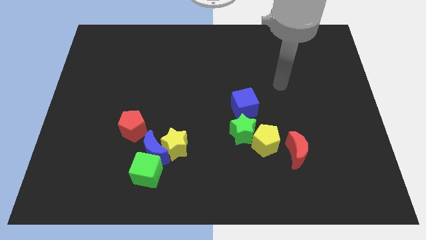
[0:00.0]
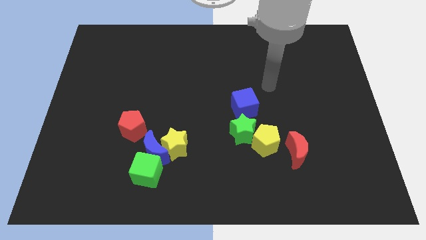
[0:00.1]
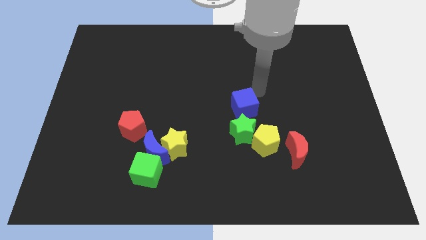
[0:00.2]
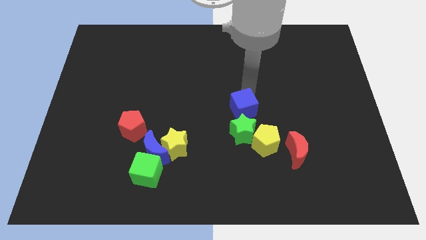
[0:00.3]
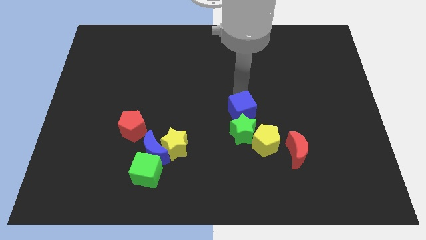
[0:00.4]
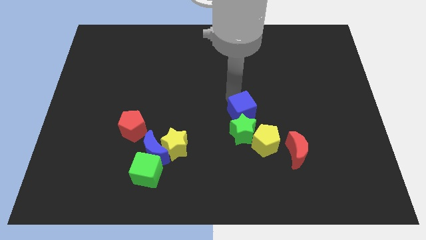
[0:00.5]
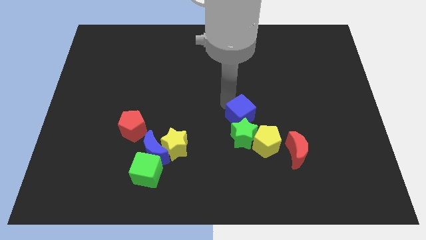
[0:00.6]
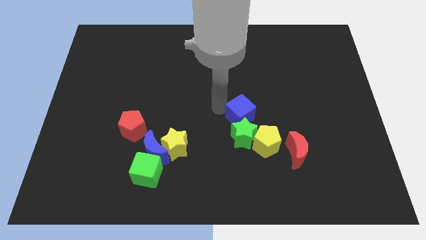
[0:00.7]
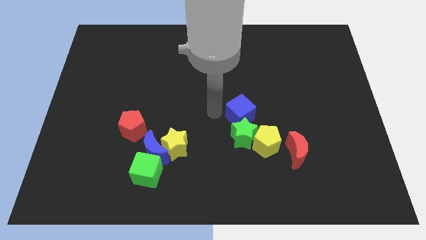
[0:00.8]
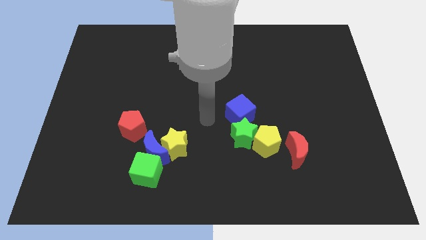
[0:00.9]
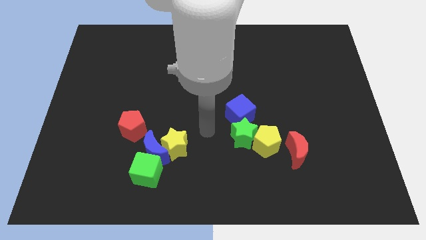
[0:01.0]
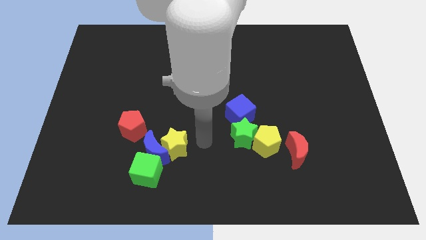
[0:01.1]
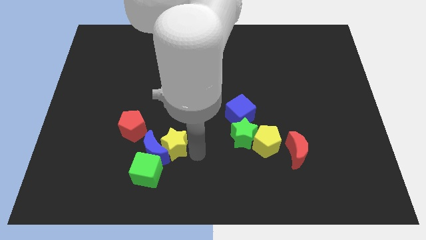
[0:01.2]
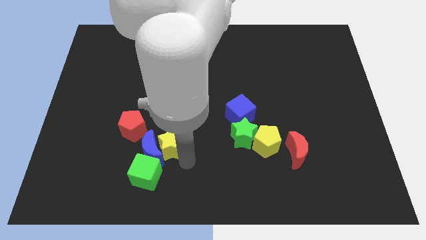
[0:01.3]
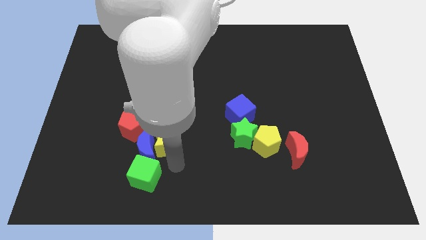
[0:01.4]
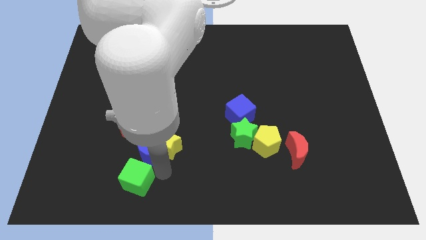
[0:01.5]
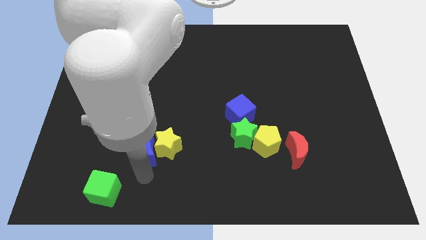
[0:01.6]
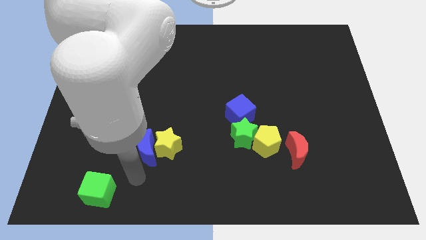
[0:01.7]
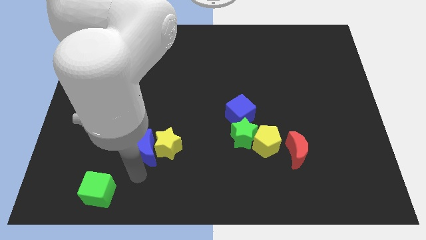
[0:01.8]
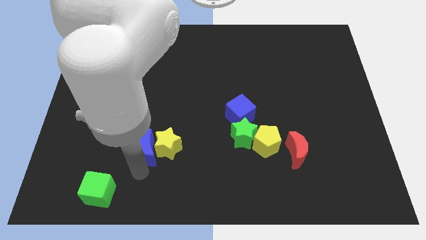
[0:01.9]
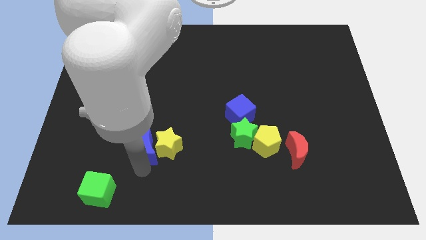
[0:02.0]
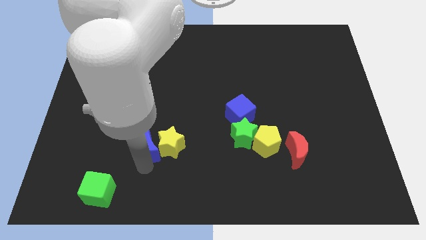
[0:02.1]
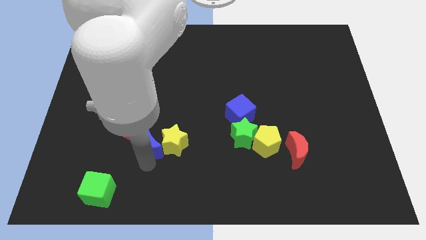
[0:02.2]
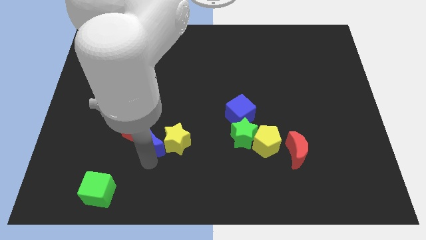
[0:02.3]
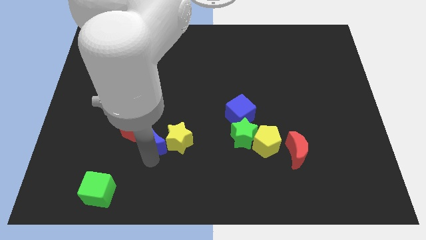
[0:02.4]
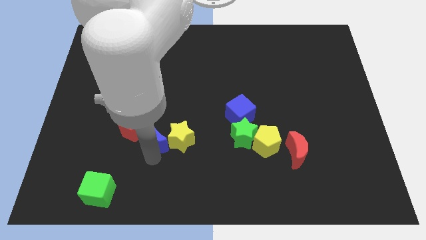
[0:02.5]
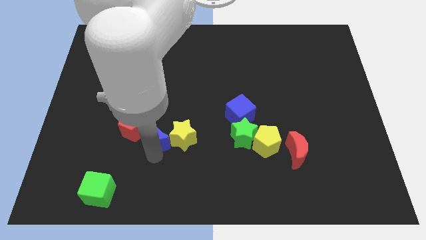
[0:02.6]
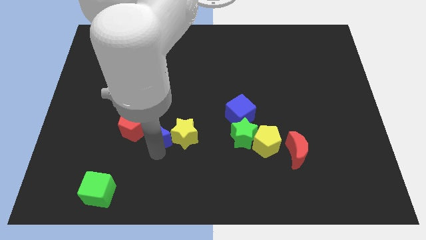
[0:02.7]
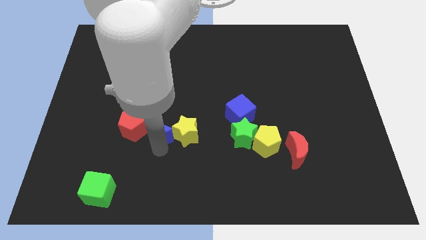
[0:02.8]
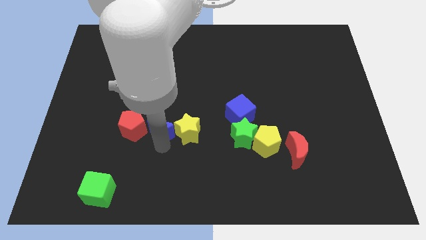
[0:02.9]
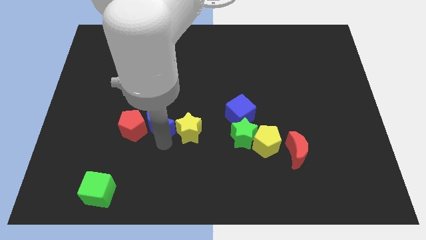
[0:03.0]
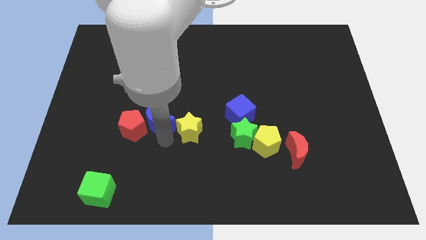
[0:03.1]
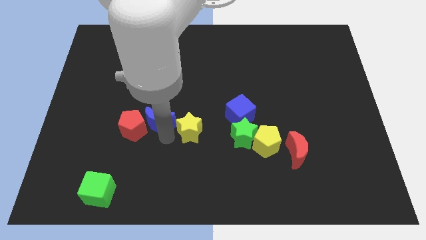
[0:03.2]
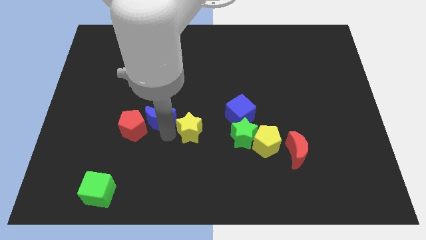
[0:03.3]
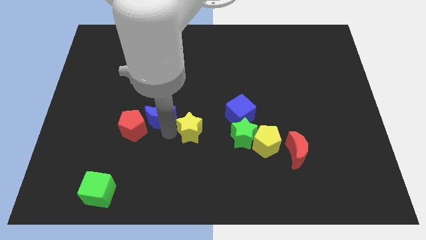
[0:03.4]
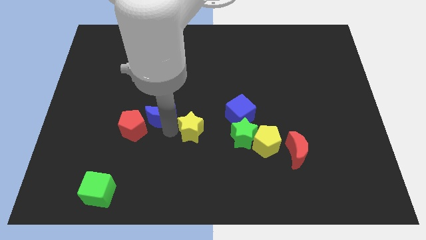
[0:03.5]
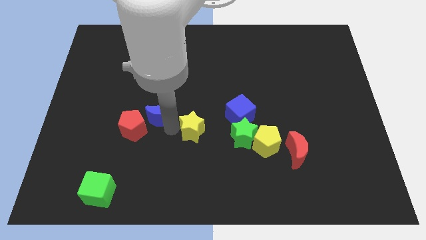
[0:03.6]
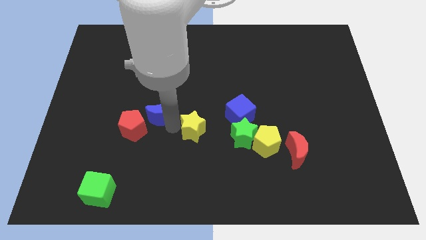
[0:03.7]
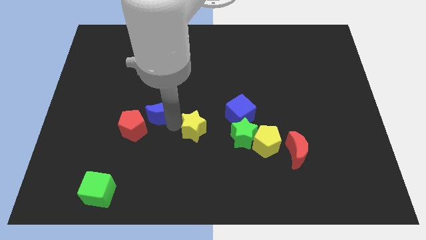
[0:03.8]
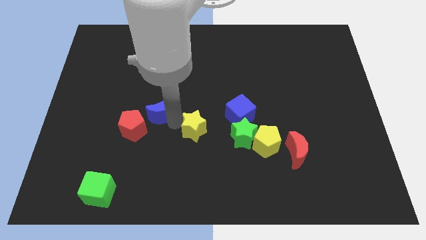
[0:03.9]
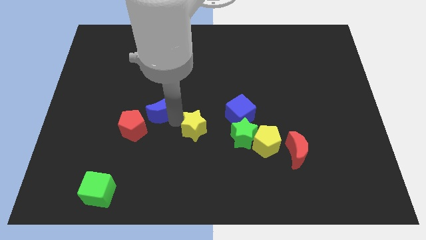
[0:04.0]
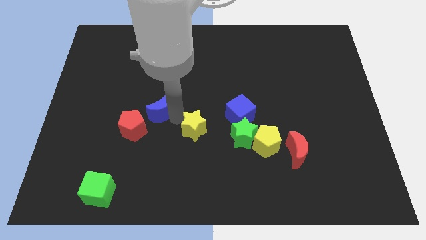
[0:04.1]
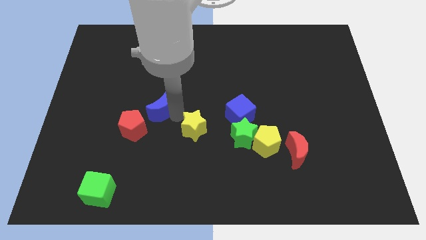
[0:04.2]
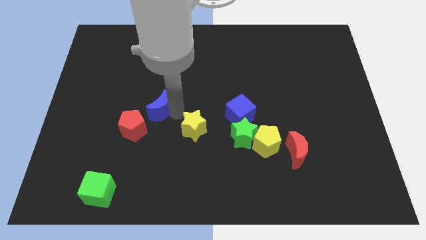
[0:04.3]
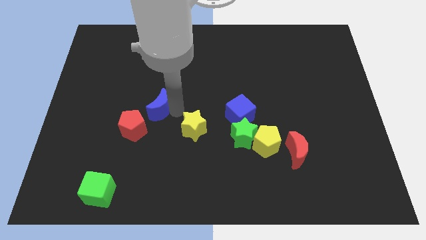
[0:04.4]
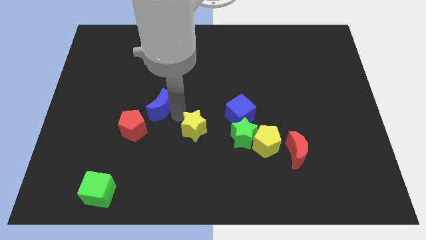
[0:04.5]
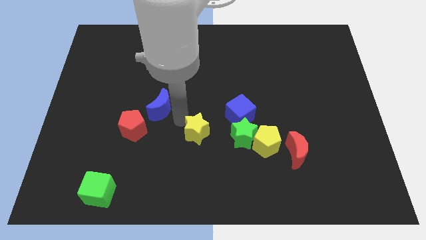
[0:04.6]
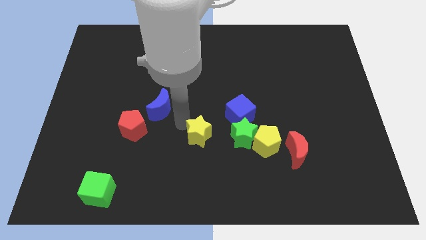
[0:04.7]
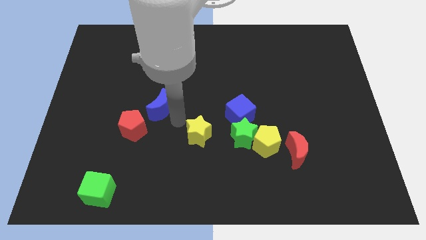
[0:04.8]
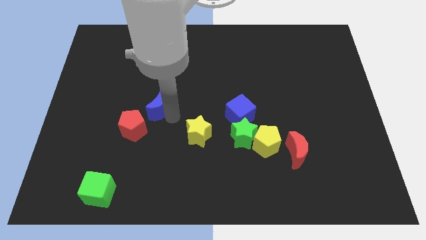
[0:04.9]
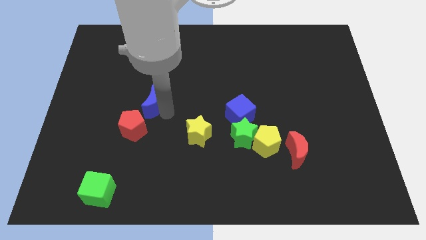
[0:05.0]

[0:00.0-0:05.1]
put the blue moon above the red pentagon

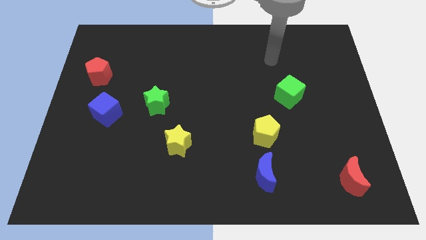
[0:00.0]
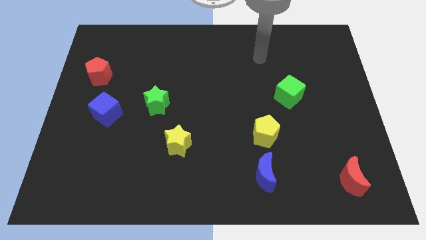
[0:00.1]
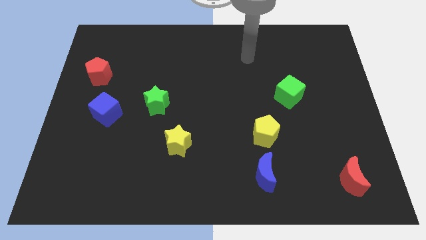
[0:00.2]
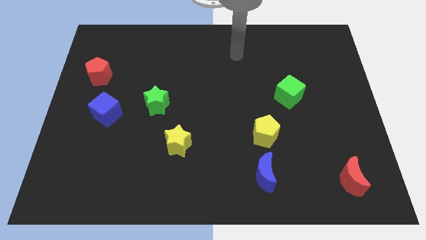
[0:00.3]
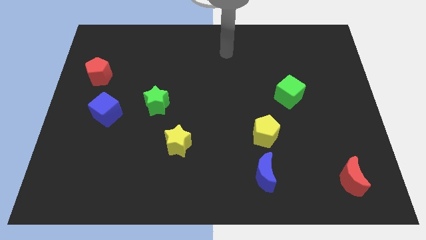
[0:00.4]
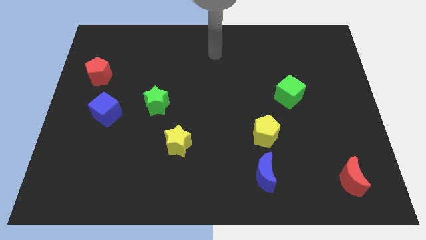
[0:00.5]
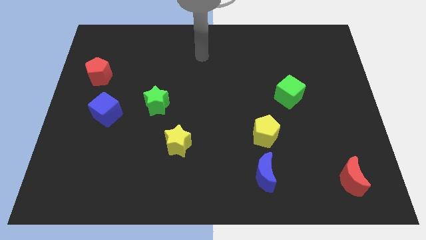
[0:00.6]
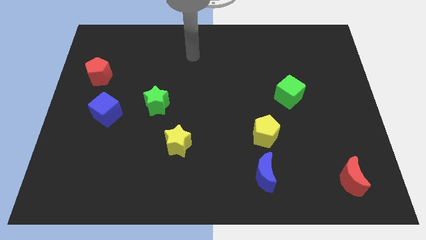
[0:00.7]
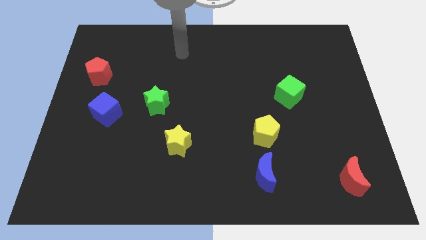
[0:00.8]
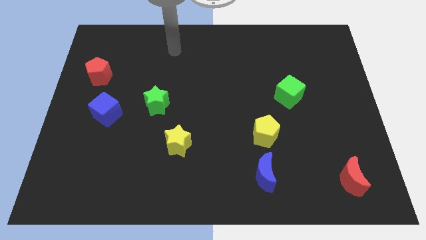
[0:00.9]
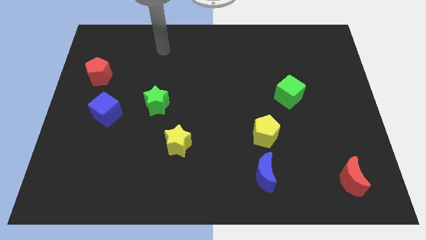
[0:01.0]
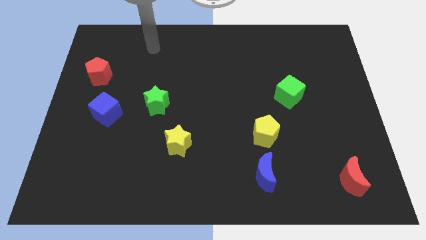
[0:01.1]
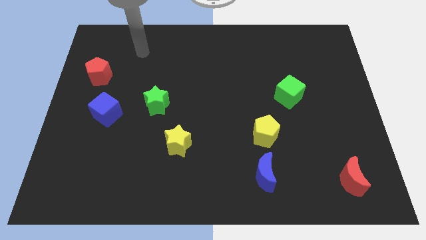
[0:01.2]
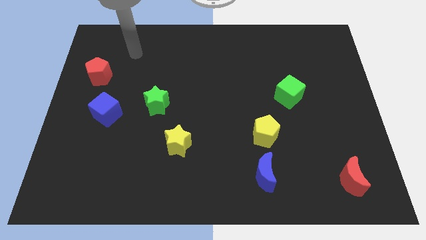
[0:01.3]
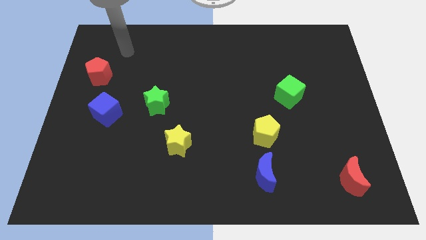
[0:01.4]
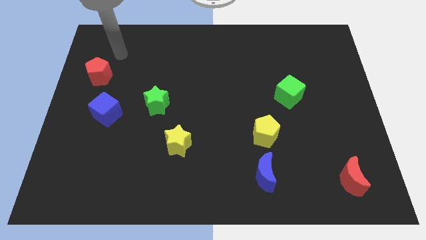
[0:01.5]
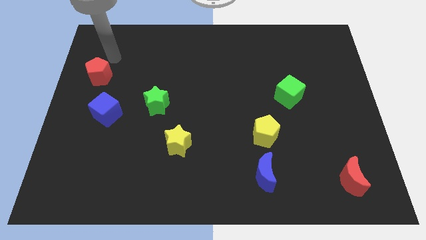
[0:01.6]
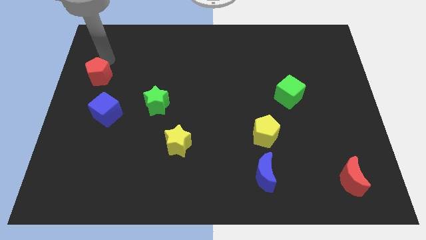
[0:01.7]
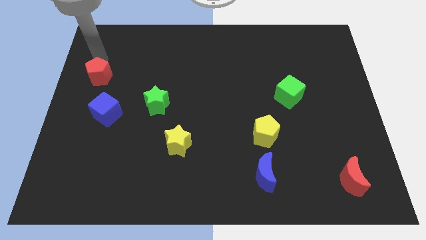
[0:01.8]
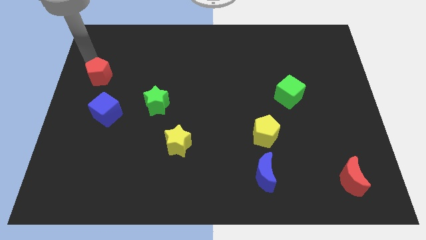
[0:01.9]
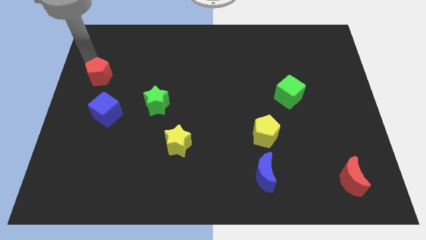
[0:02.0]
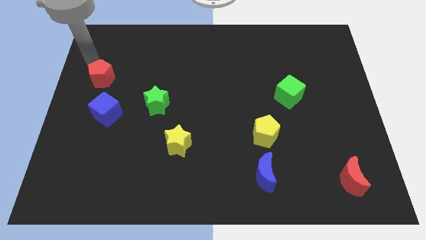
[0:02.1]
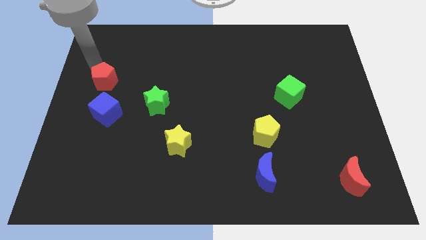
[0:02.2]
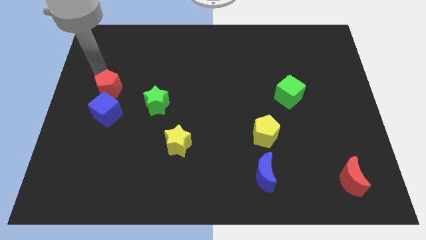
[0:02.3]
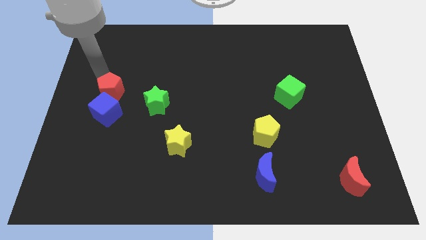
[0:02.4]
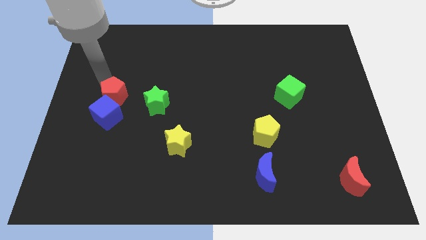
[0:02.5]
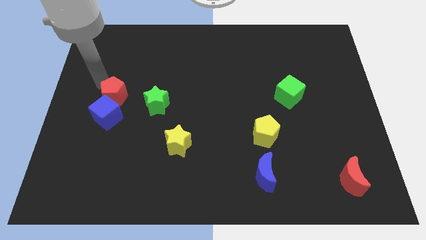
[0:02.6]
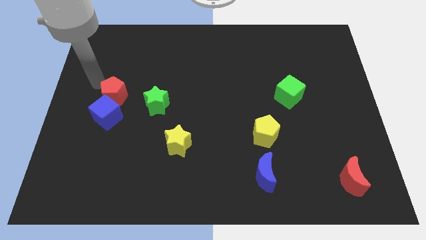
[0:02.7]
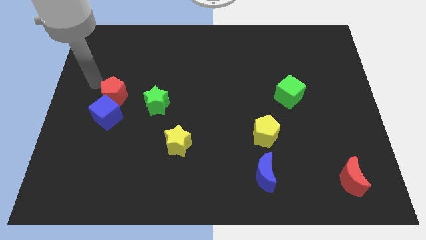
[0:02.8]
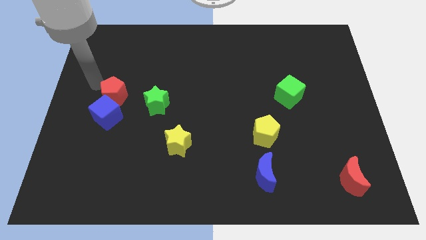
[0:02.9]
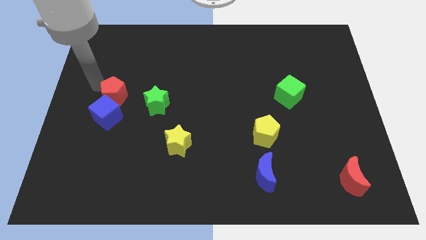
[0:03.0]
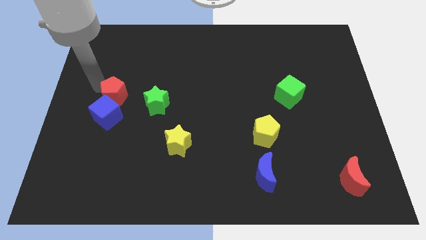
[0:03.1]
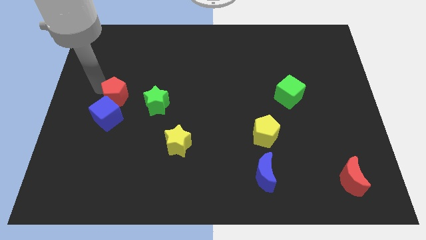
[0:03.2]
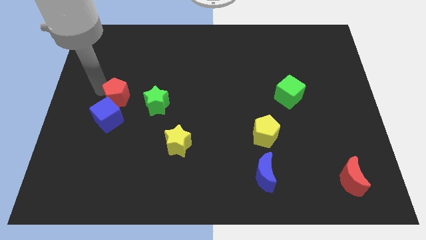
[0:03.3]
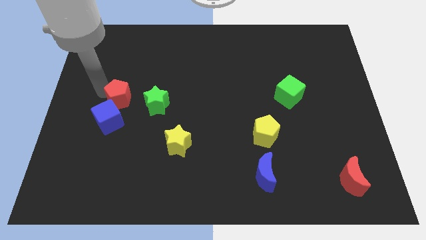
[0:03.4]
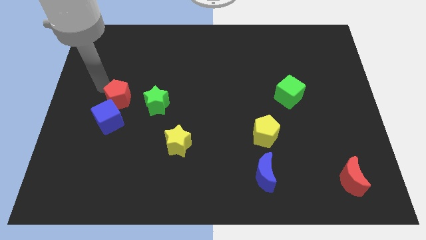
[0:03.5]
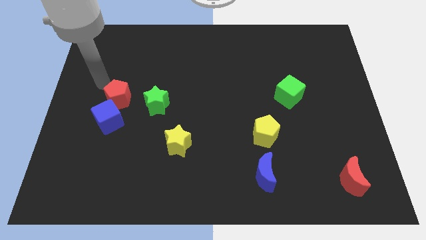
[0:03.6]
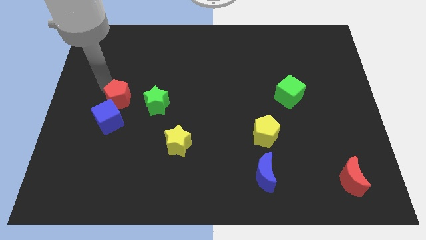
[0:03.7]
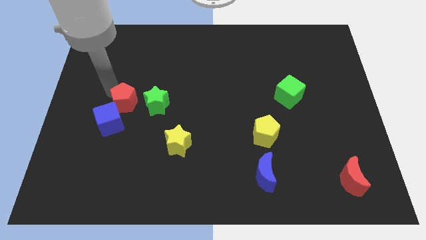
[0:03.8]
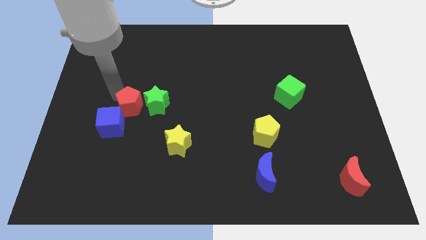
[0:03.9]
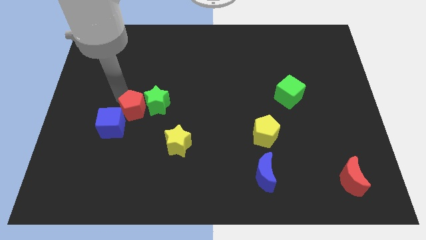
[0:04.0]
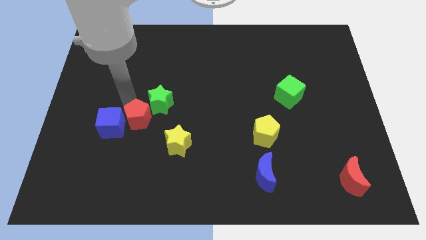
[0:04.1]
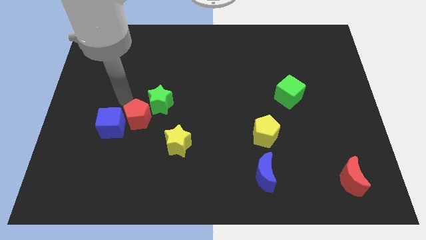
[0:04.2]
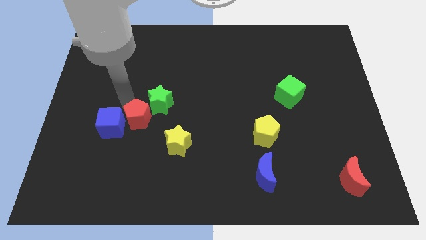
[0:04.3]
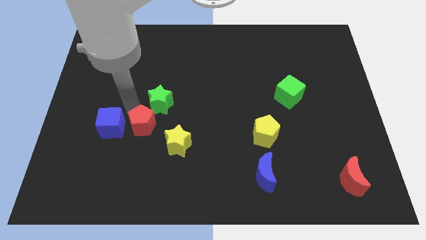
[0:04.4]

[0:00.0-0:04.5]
slide the red pentagon to the bottom side of the green star
